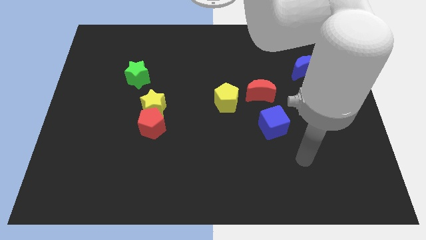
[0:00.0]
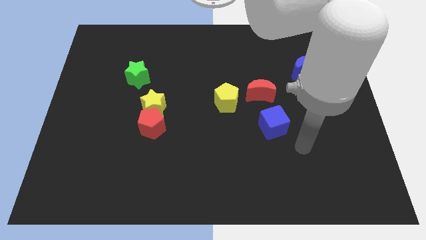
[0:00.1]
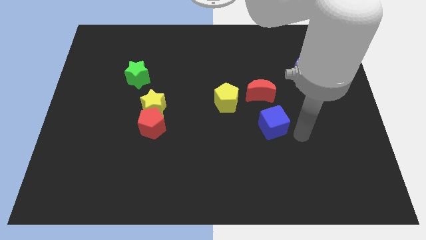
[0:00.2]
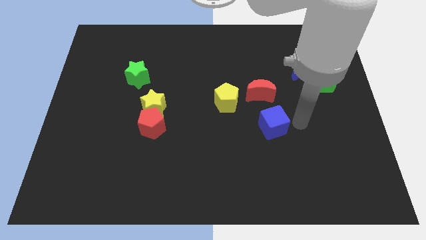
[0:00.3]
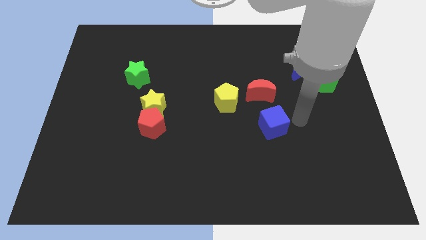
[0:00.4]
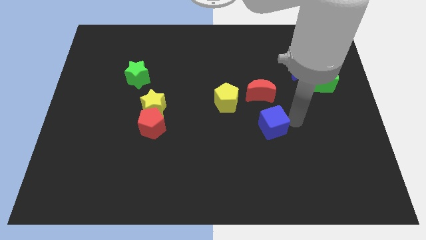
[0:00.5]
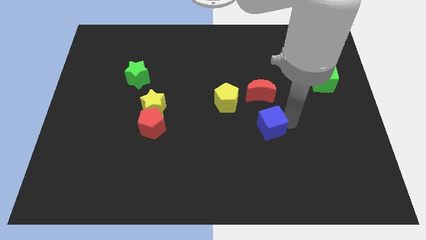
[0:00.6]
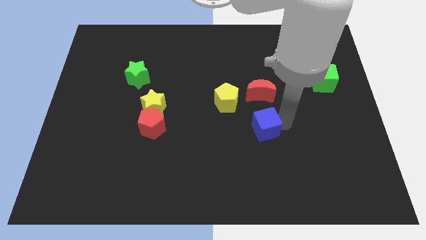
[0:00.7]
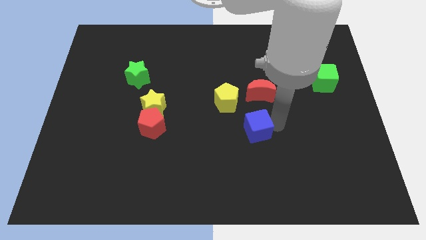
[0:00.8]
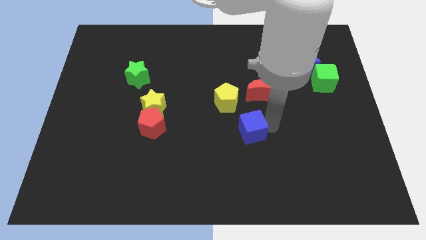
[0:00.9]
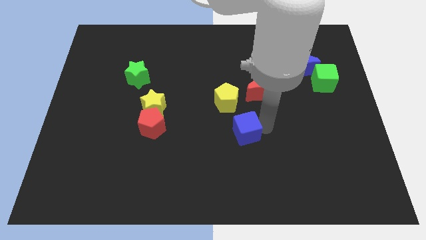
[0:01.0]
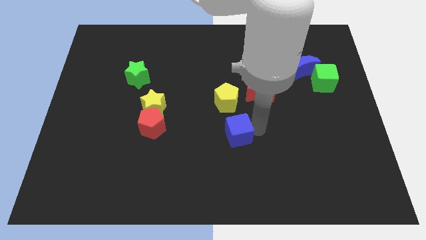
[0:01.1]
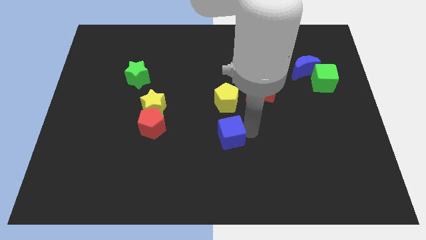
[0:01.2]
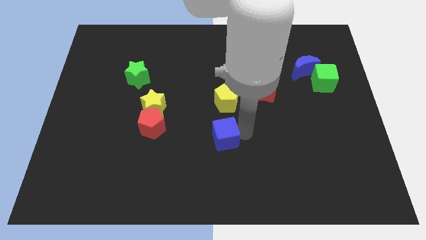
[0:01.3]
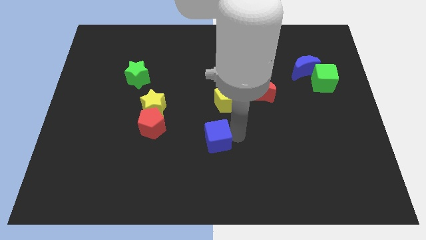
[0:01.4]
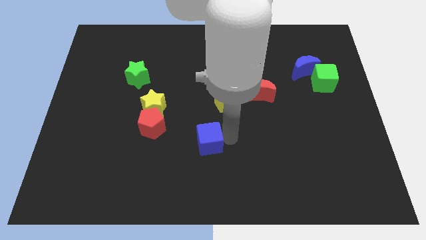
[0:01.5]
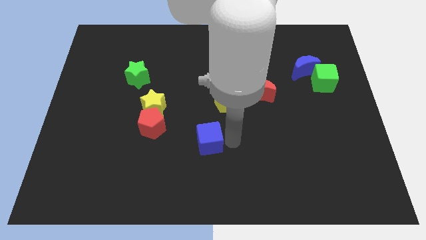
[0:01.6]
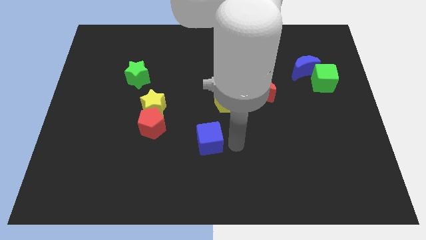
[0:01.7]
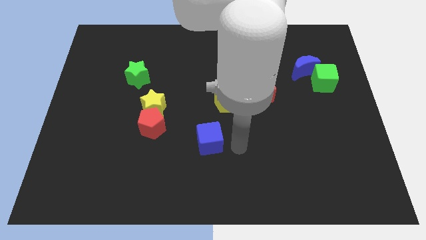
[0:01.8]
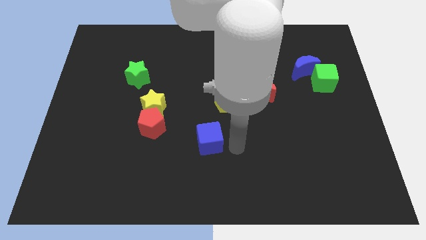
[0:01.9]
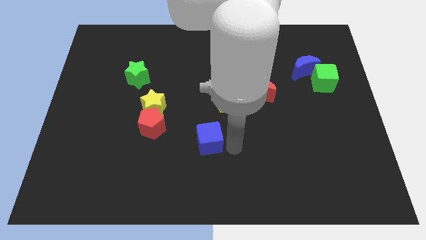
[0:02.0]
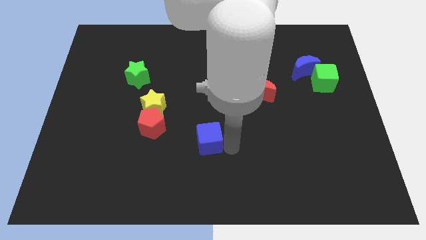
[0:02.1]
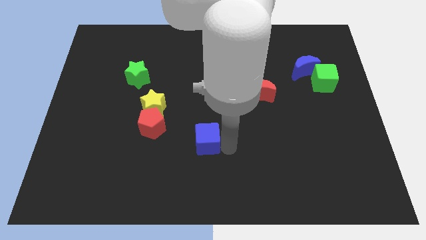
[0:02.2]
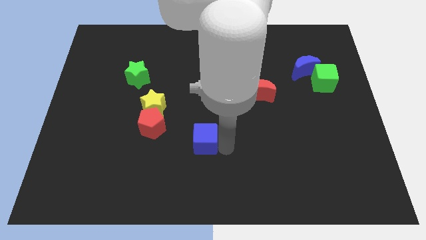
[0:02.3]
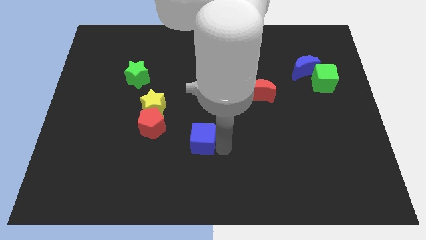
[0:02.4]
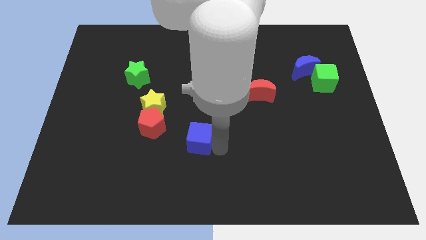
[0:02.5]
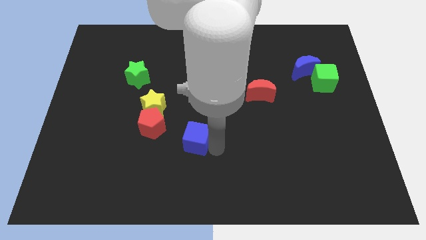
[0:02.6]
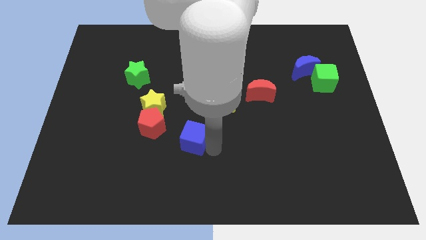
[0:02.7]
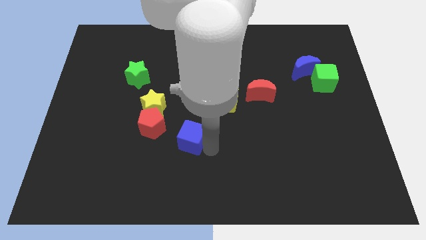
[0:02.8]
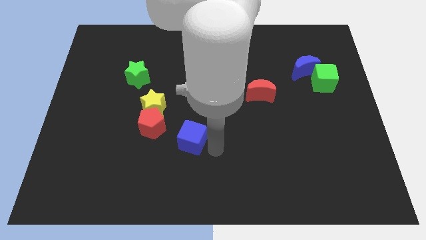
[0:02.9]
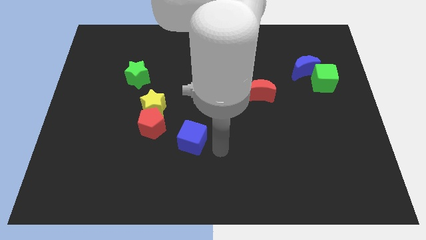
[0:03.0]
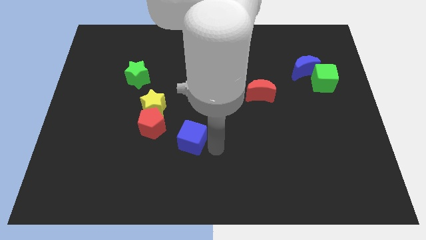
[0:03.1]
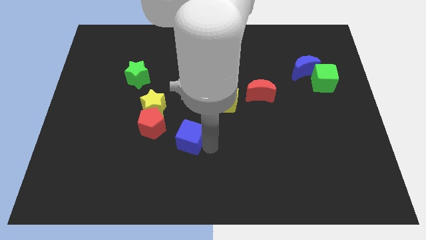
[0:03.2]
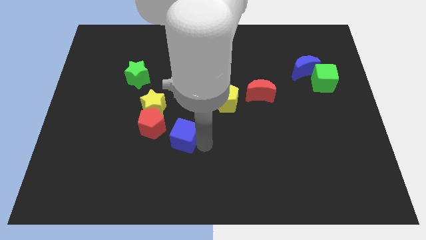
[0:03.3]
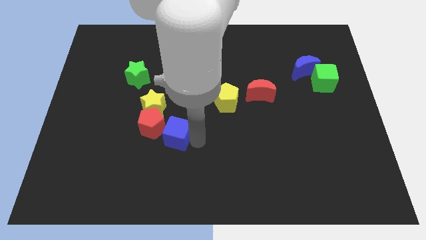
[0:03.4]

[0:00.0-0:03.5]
move the blue cube to the left

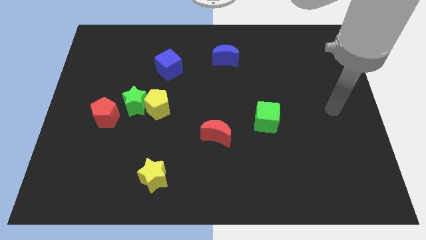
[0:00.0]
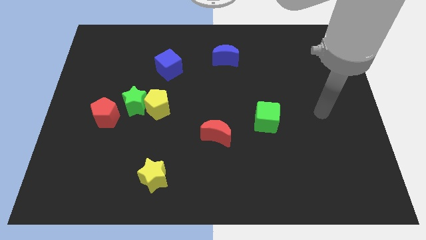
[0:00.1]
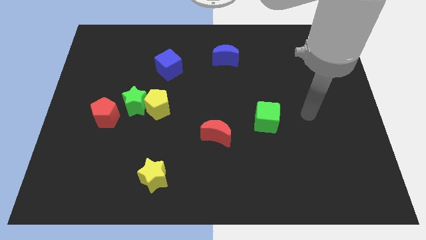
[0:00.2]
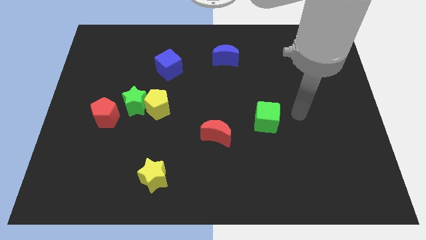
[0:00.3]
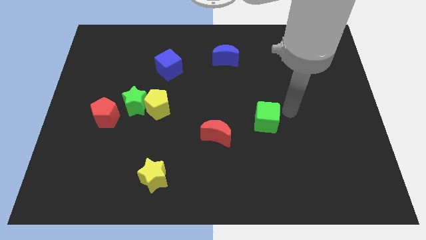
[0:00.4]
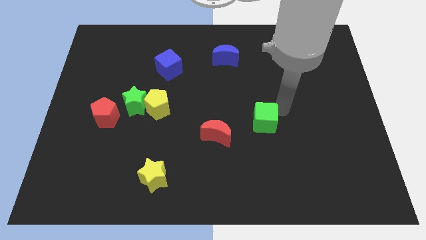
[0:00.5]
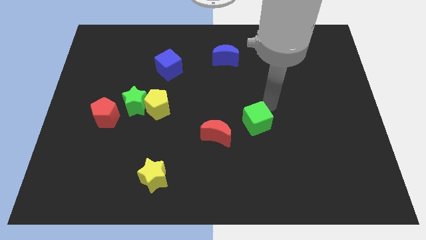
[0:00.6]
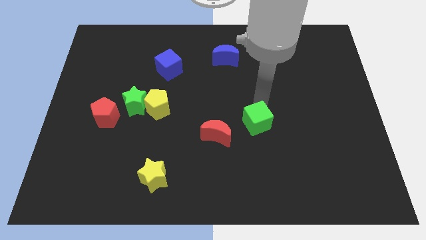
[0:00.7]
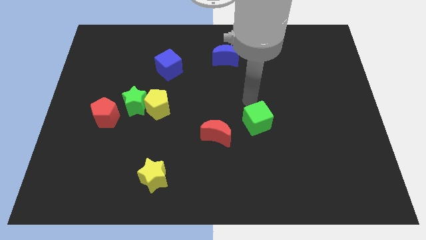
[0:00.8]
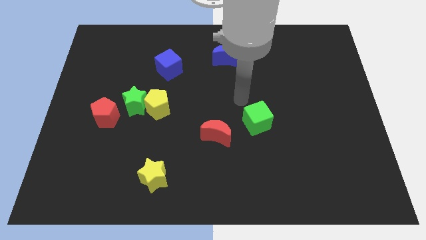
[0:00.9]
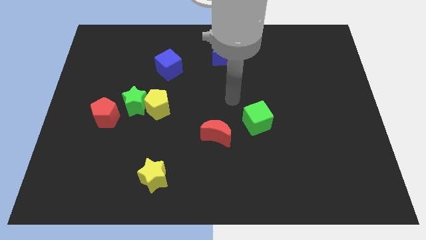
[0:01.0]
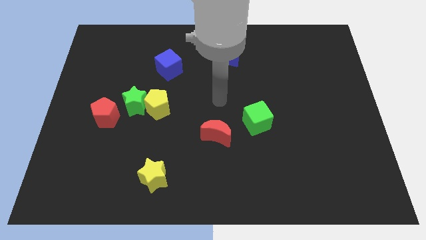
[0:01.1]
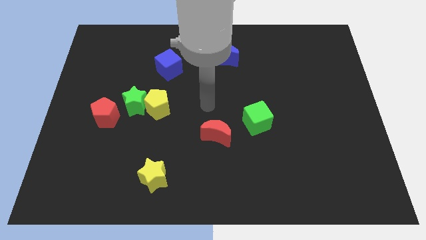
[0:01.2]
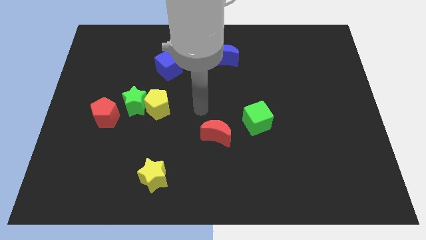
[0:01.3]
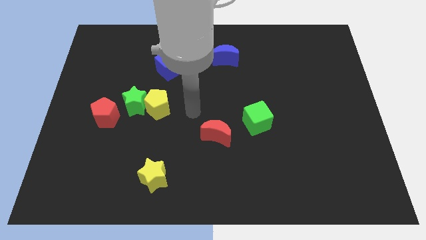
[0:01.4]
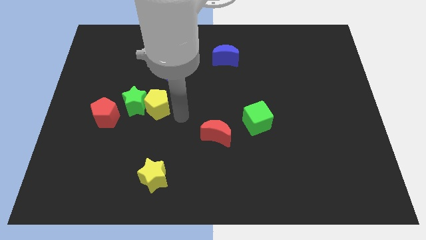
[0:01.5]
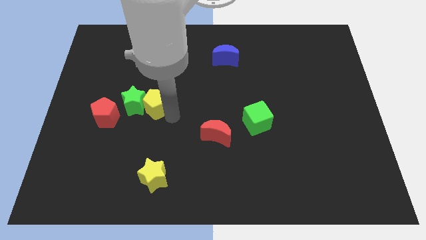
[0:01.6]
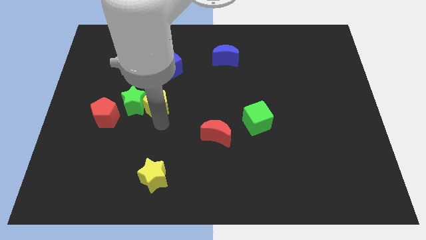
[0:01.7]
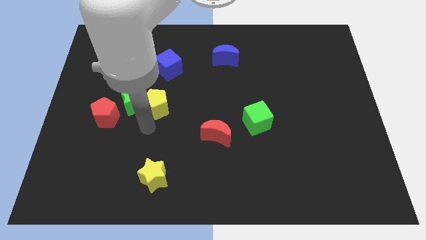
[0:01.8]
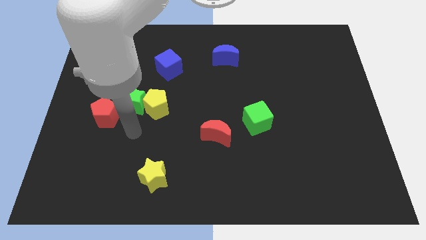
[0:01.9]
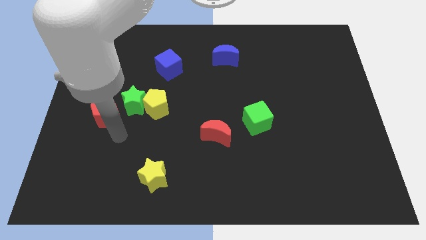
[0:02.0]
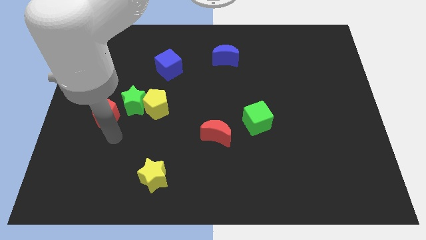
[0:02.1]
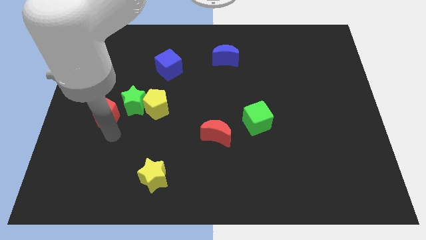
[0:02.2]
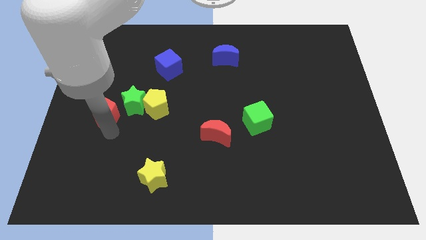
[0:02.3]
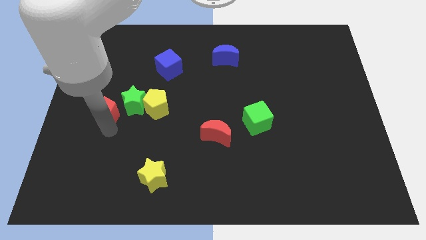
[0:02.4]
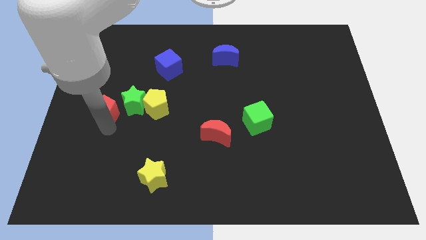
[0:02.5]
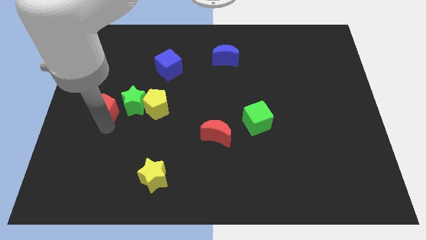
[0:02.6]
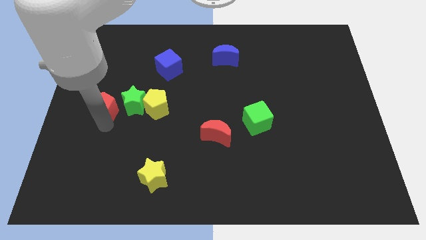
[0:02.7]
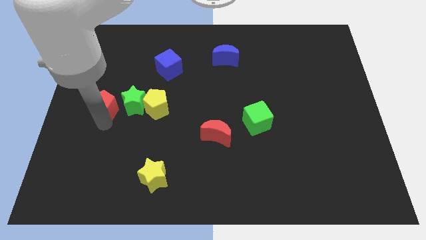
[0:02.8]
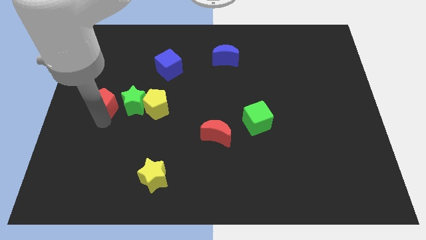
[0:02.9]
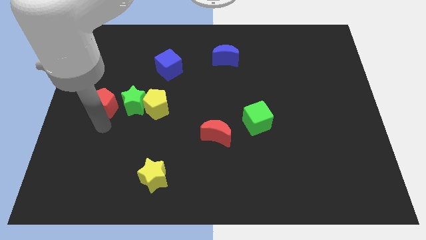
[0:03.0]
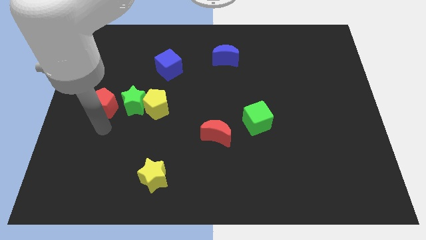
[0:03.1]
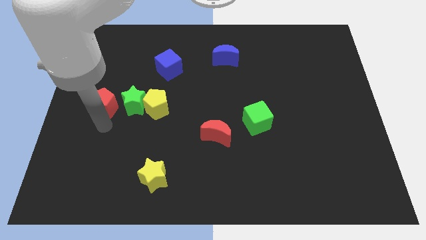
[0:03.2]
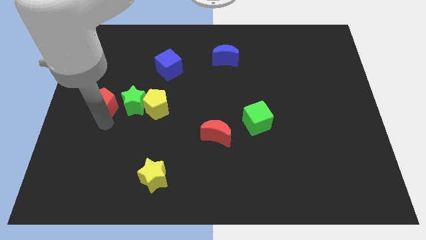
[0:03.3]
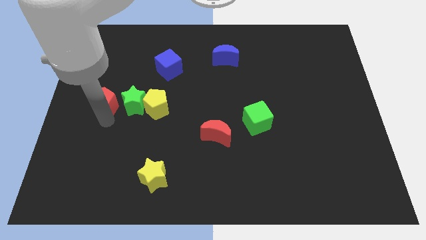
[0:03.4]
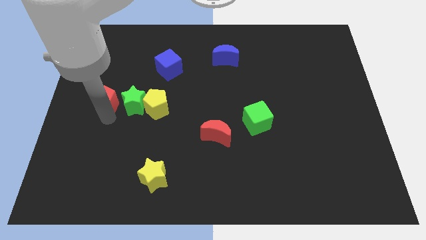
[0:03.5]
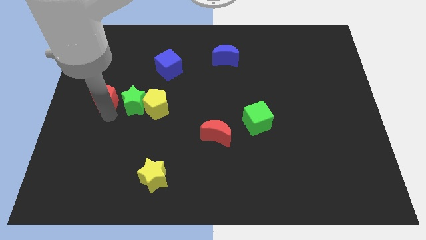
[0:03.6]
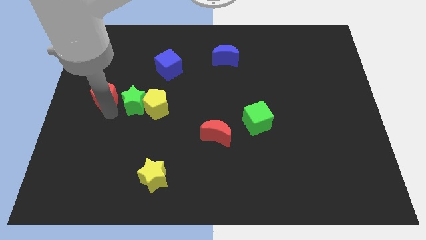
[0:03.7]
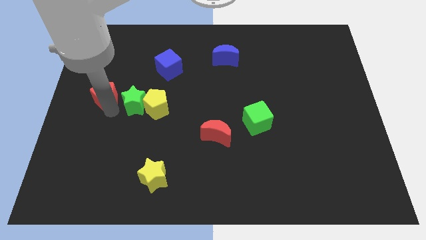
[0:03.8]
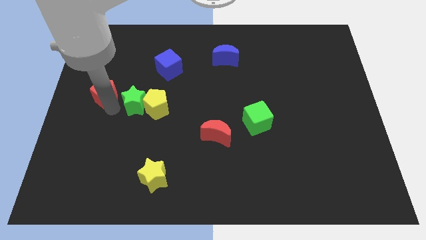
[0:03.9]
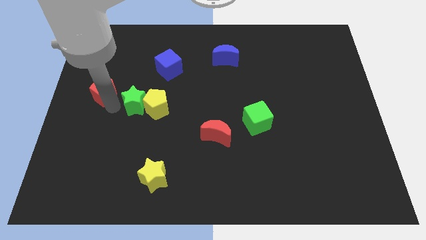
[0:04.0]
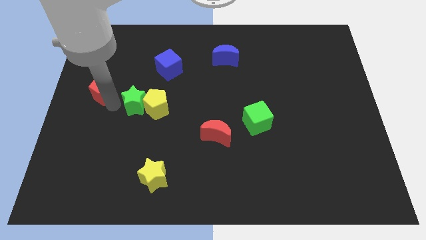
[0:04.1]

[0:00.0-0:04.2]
slide the red pentagon up somewhat

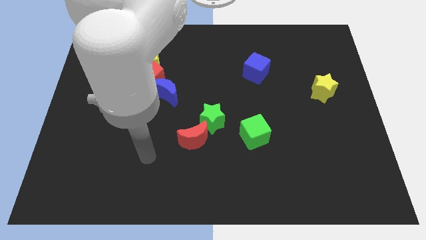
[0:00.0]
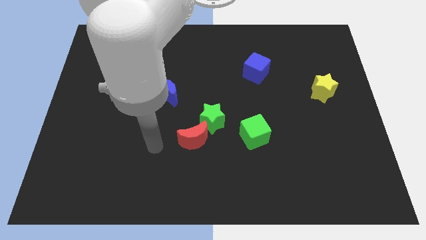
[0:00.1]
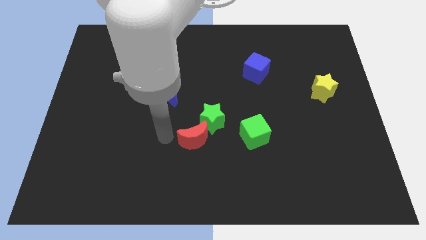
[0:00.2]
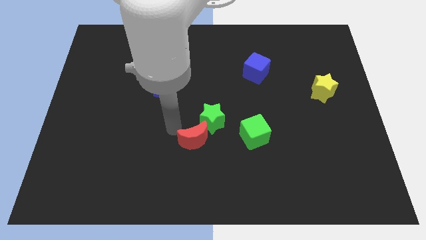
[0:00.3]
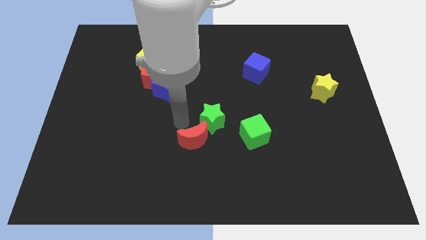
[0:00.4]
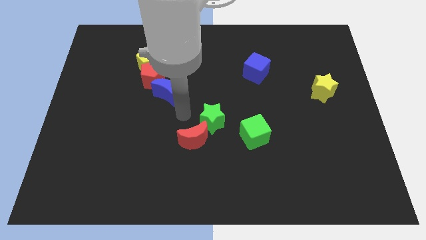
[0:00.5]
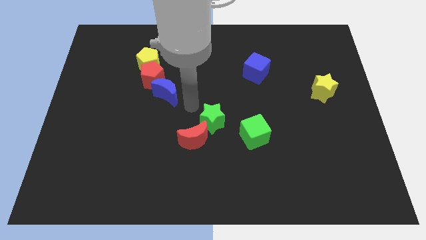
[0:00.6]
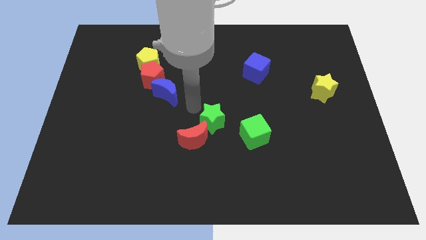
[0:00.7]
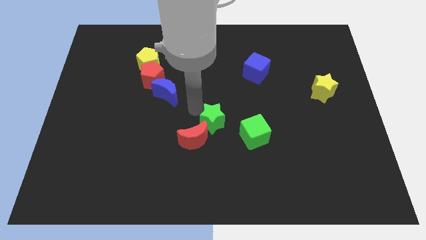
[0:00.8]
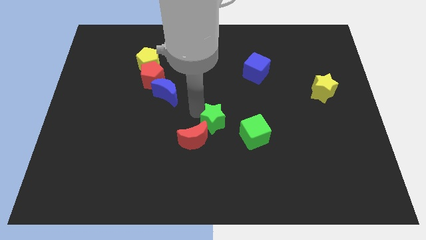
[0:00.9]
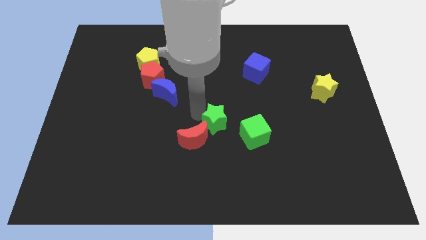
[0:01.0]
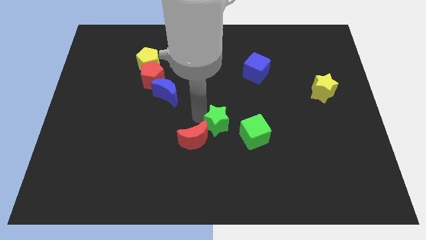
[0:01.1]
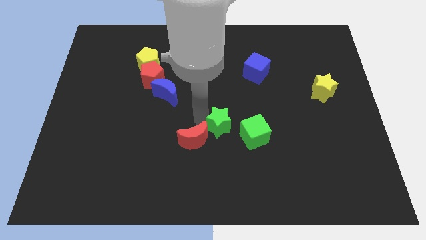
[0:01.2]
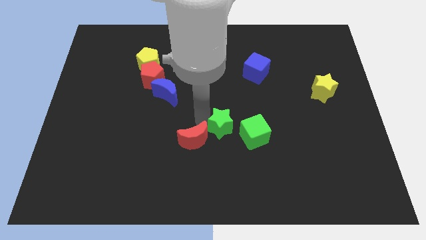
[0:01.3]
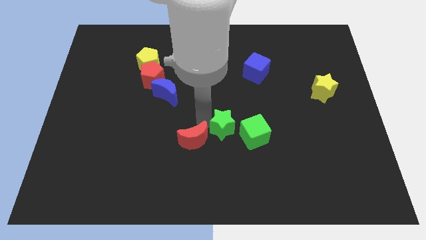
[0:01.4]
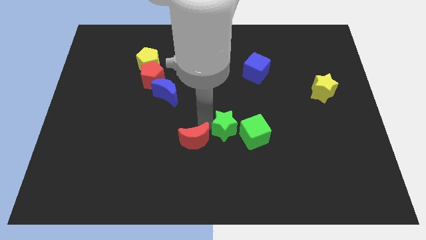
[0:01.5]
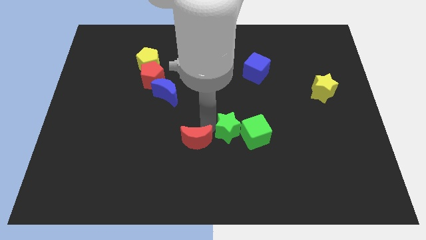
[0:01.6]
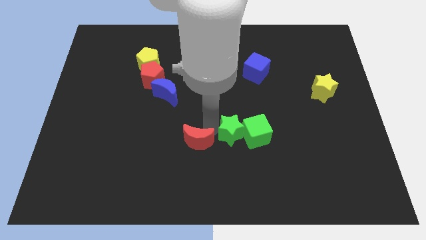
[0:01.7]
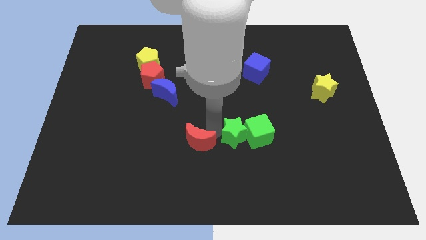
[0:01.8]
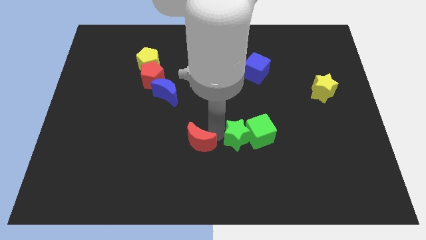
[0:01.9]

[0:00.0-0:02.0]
push the green star slightly diagonally down and right
